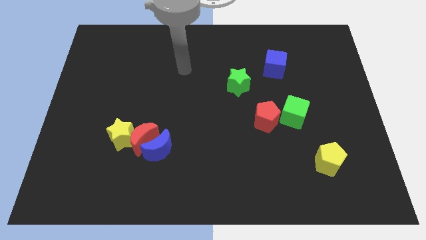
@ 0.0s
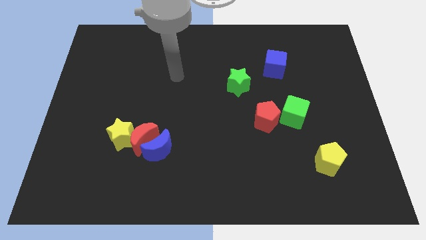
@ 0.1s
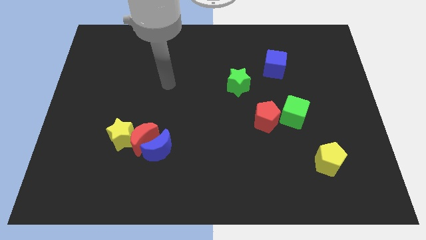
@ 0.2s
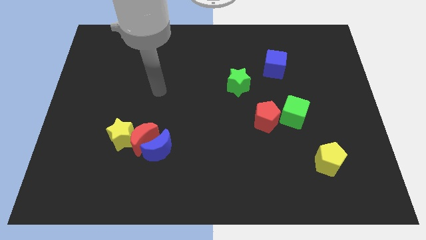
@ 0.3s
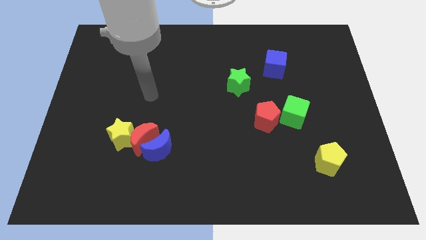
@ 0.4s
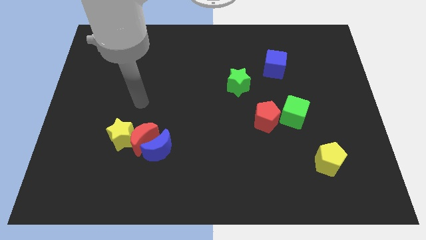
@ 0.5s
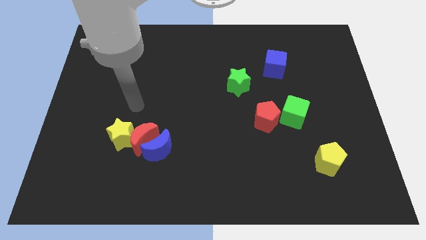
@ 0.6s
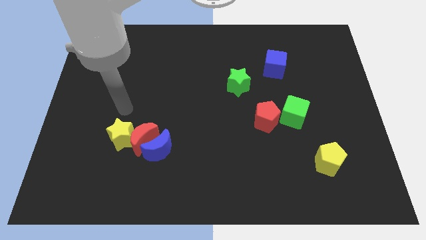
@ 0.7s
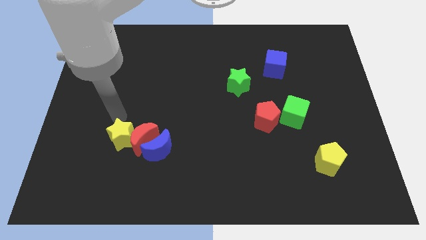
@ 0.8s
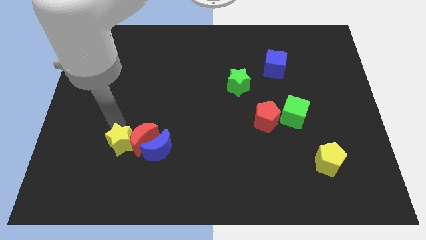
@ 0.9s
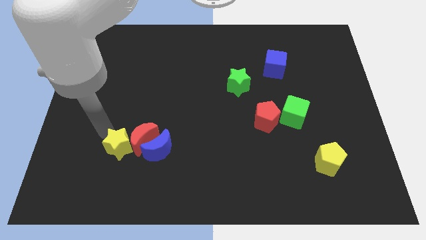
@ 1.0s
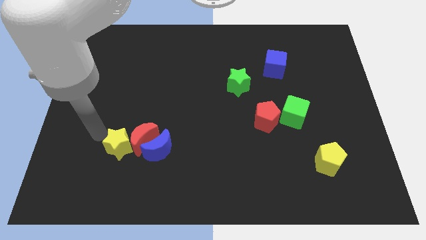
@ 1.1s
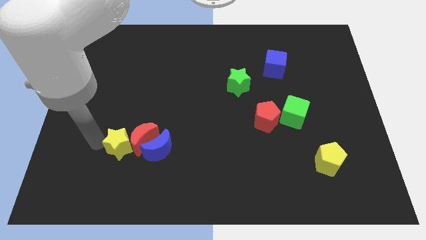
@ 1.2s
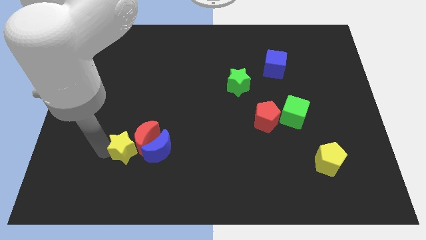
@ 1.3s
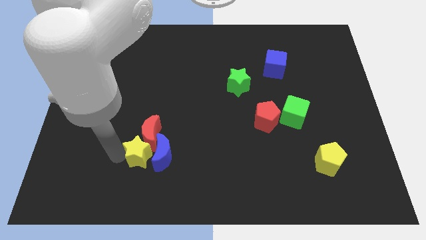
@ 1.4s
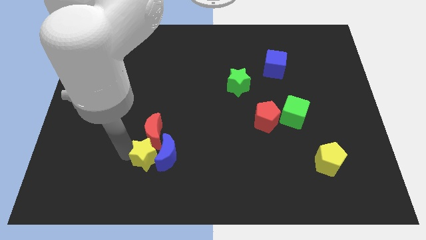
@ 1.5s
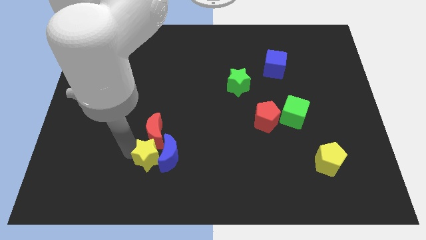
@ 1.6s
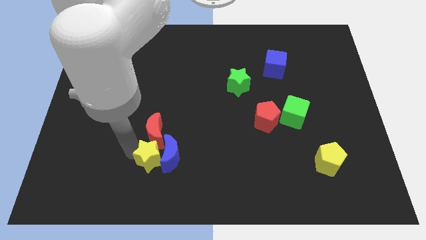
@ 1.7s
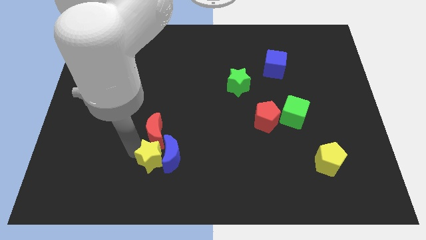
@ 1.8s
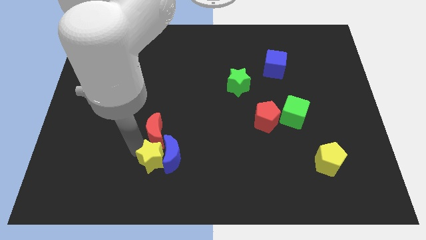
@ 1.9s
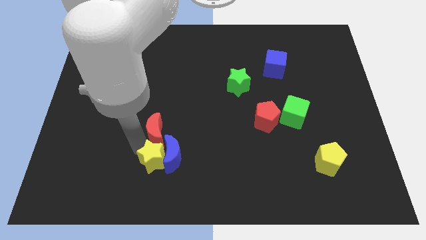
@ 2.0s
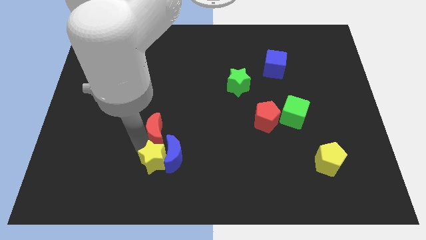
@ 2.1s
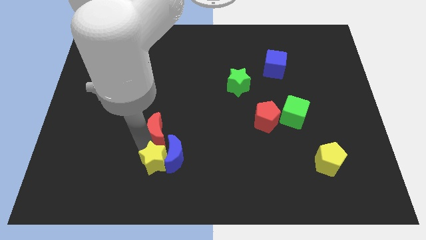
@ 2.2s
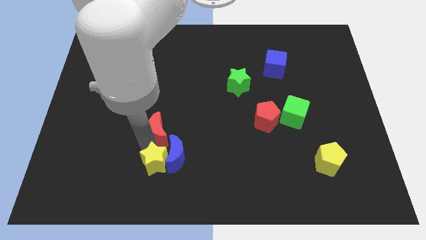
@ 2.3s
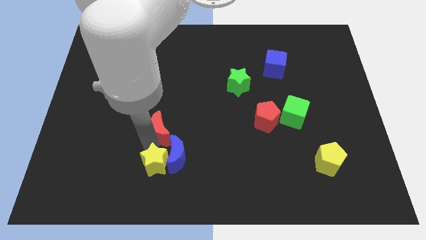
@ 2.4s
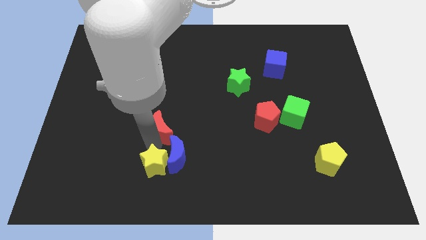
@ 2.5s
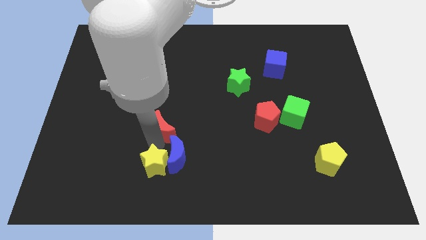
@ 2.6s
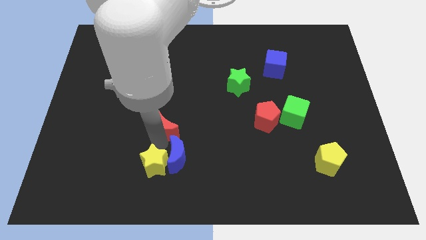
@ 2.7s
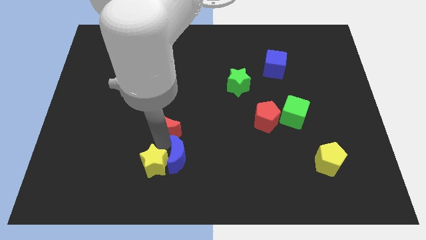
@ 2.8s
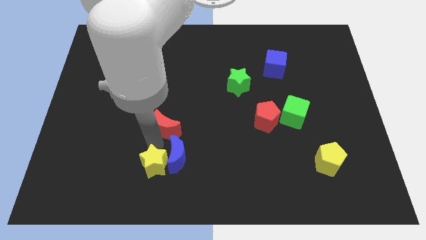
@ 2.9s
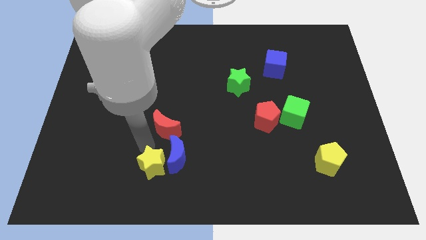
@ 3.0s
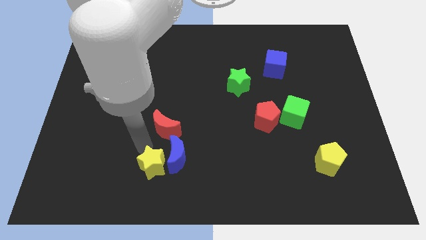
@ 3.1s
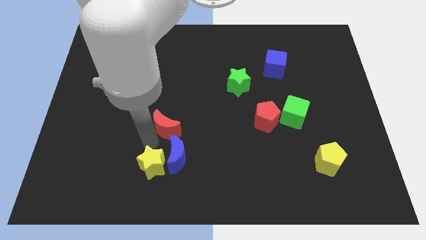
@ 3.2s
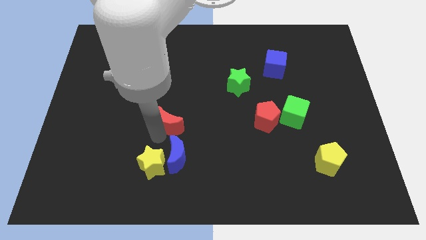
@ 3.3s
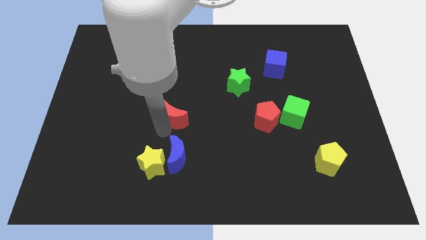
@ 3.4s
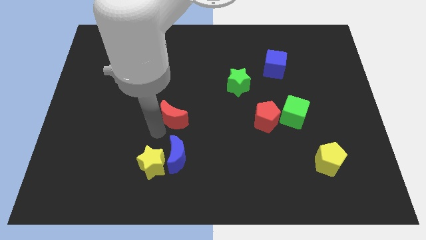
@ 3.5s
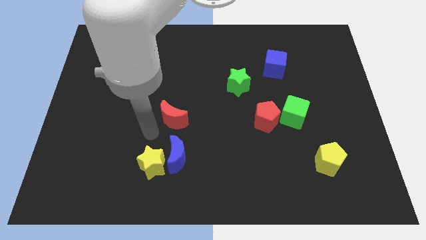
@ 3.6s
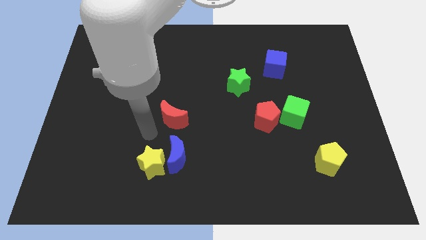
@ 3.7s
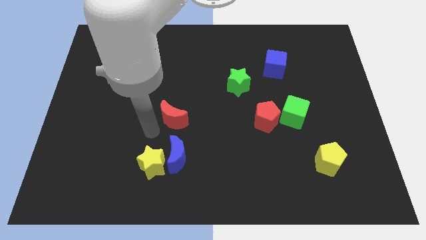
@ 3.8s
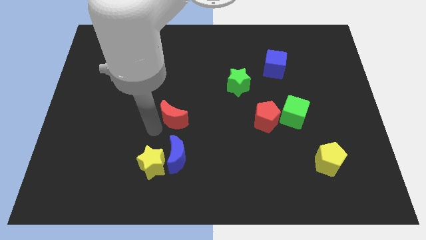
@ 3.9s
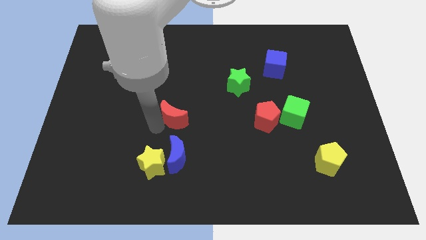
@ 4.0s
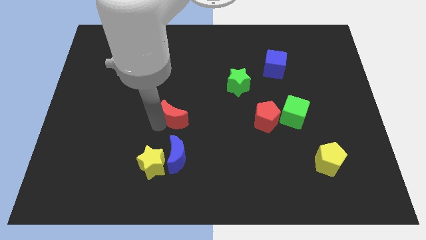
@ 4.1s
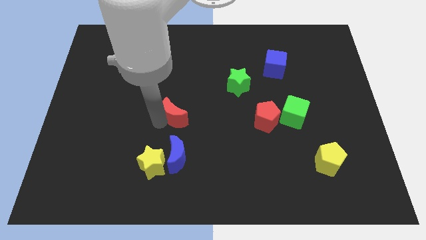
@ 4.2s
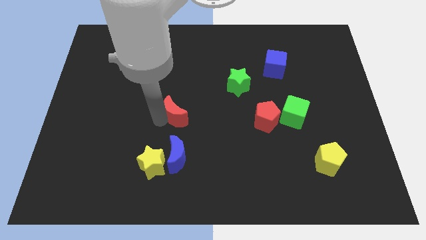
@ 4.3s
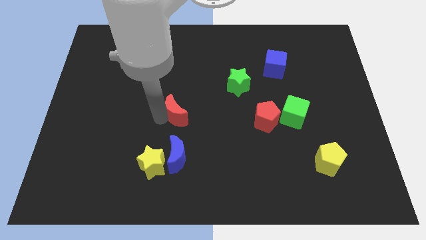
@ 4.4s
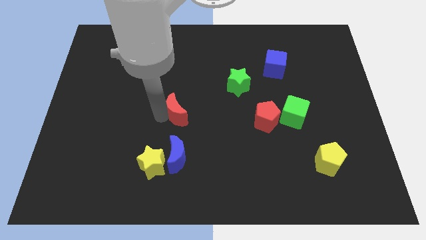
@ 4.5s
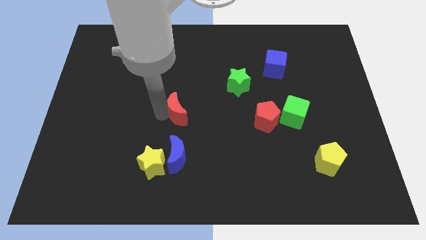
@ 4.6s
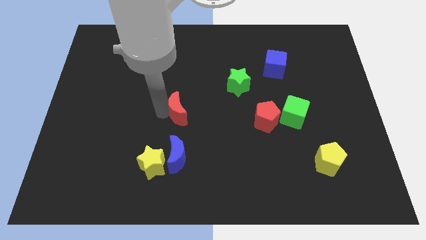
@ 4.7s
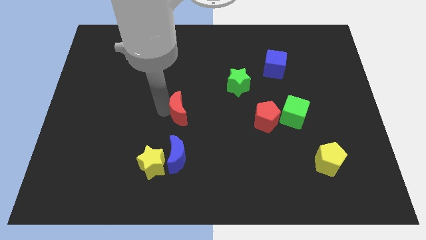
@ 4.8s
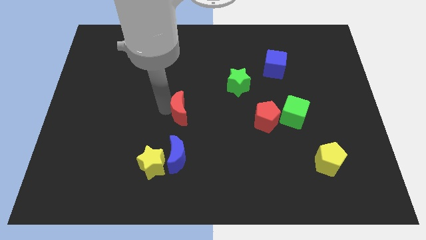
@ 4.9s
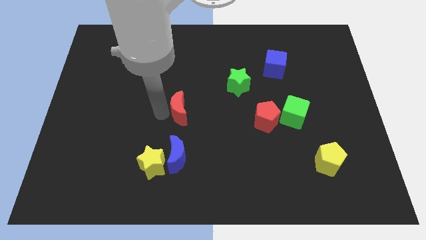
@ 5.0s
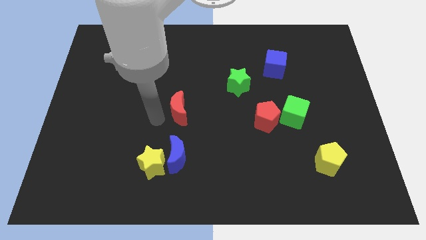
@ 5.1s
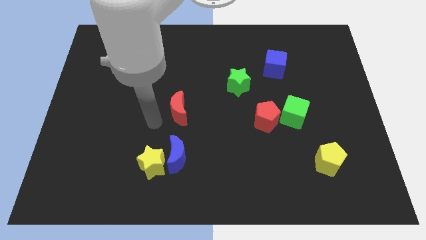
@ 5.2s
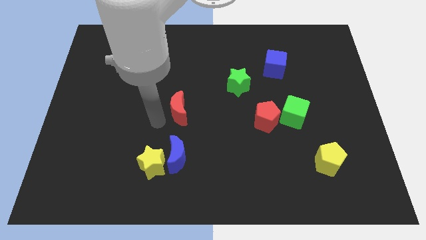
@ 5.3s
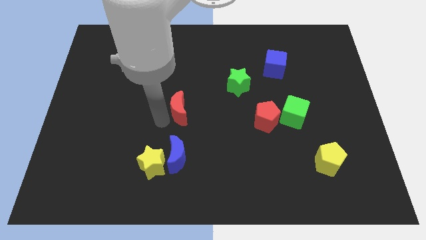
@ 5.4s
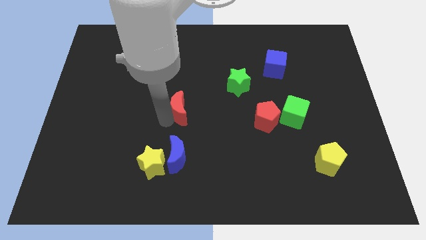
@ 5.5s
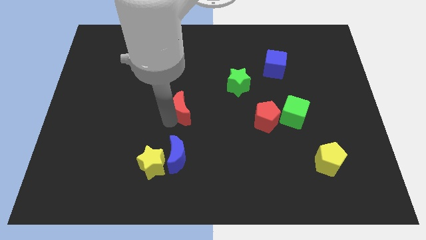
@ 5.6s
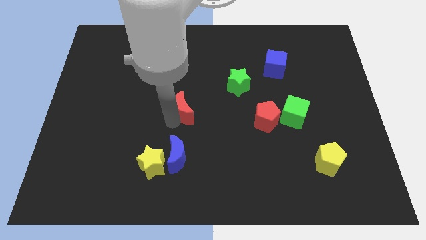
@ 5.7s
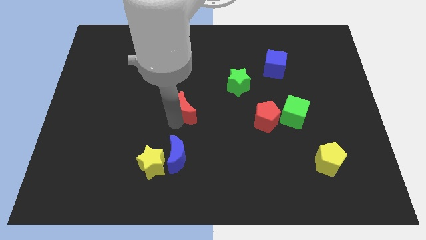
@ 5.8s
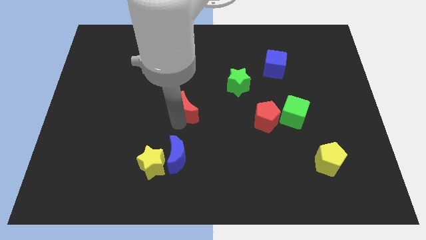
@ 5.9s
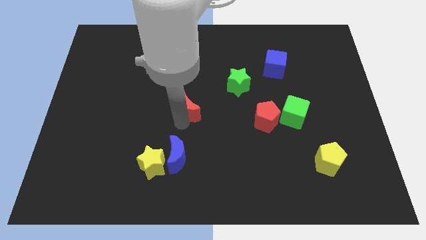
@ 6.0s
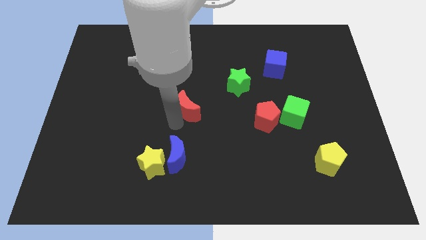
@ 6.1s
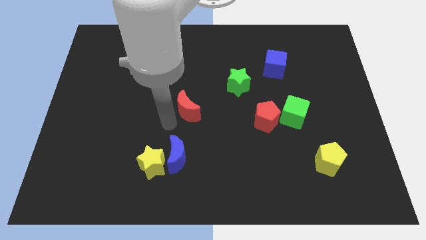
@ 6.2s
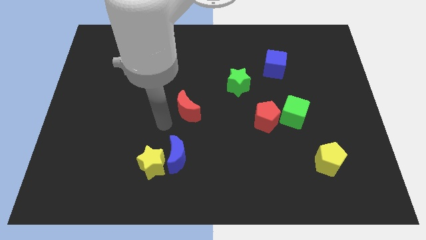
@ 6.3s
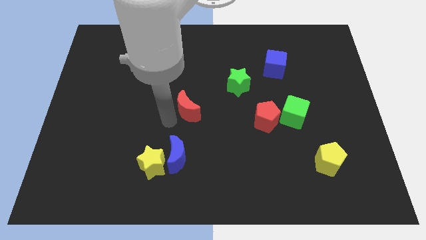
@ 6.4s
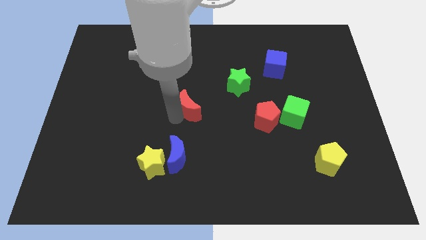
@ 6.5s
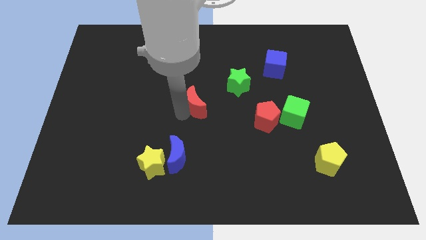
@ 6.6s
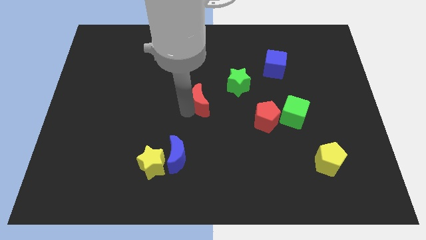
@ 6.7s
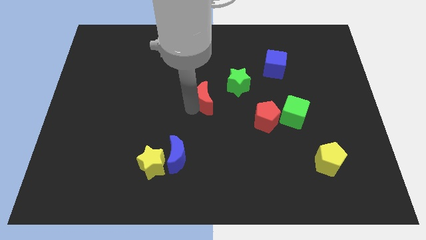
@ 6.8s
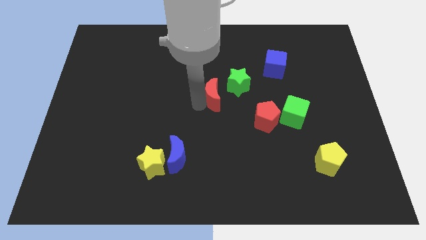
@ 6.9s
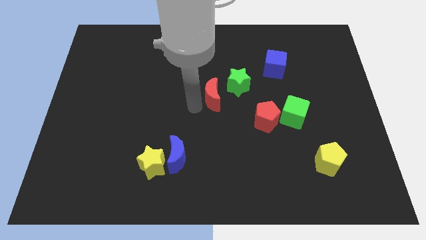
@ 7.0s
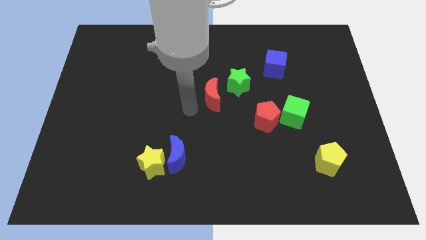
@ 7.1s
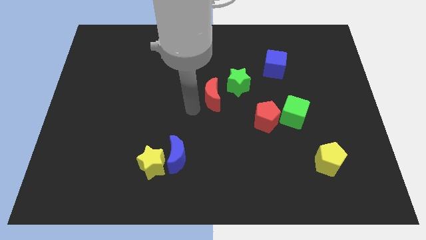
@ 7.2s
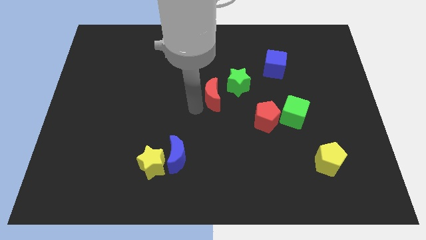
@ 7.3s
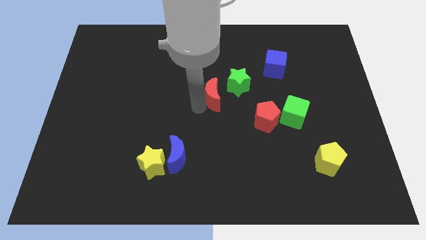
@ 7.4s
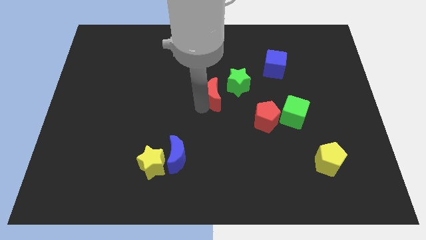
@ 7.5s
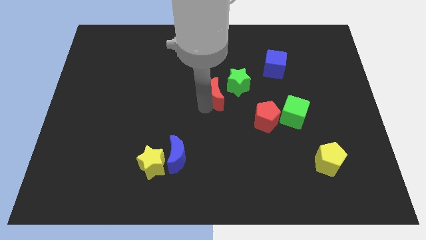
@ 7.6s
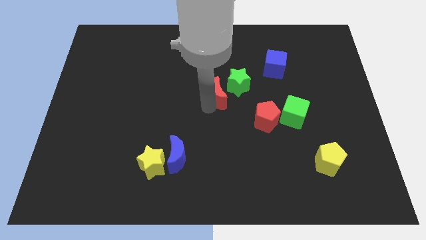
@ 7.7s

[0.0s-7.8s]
move the red moon to the green star
